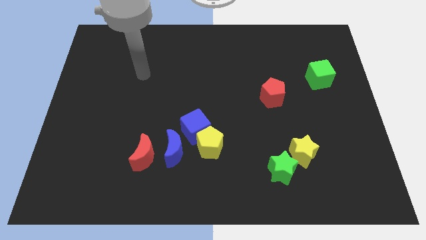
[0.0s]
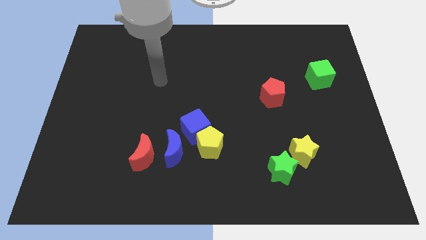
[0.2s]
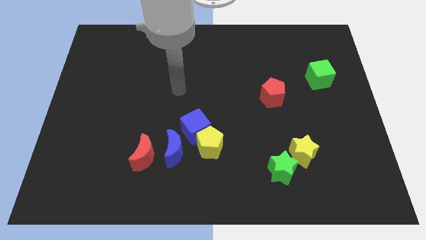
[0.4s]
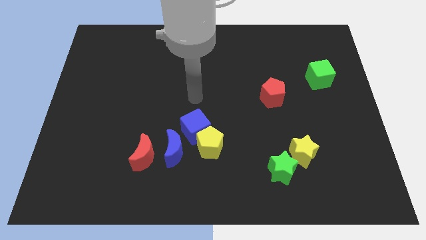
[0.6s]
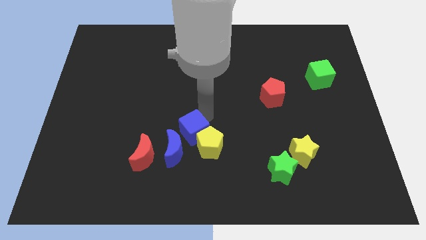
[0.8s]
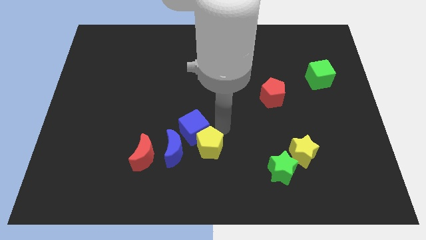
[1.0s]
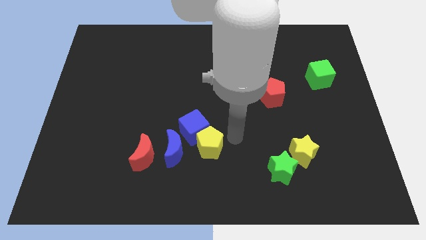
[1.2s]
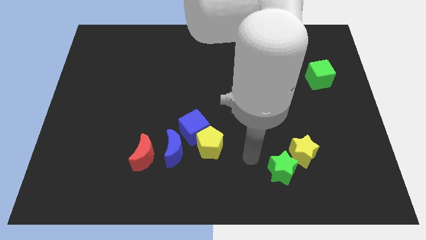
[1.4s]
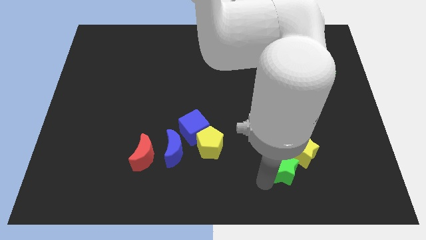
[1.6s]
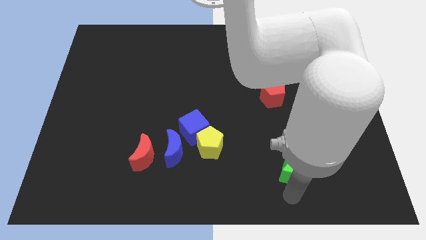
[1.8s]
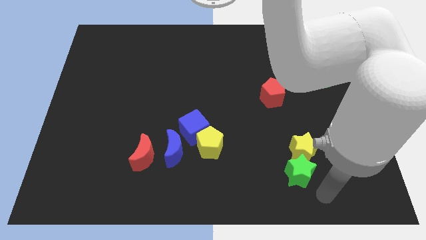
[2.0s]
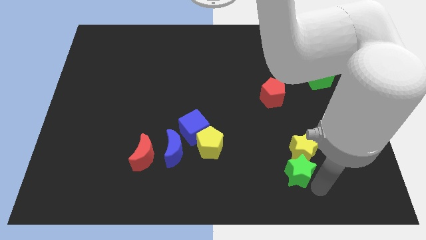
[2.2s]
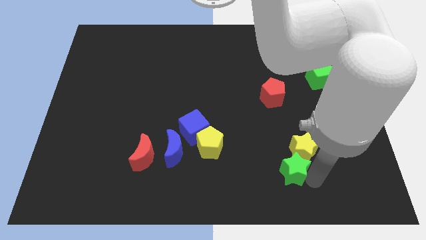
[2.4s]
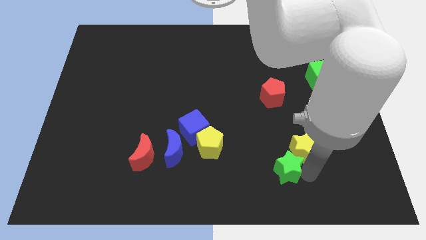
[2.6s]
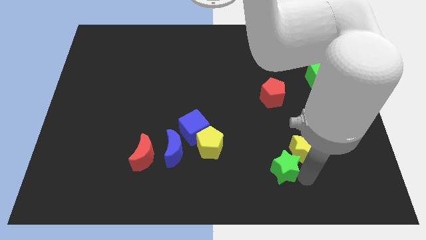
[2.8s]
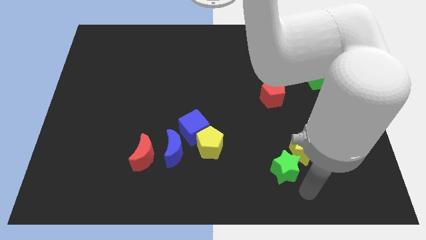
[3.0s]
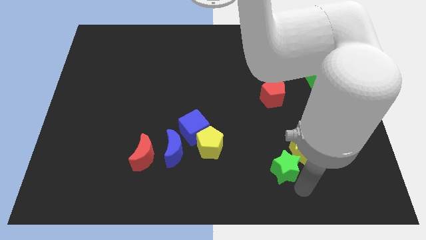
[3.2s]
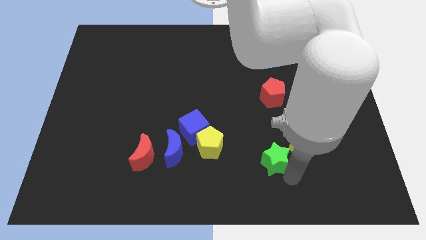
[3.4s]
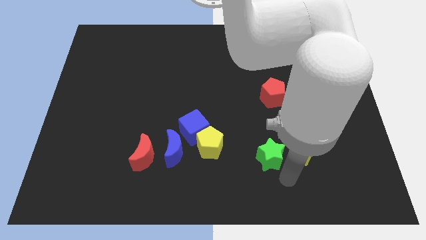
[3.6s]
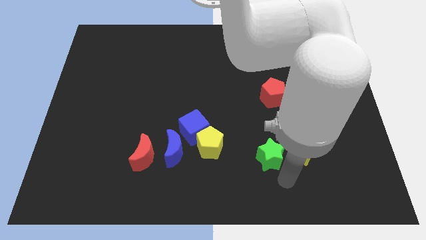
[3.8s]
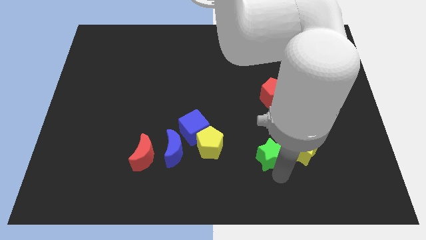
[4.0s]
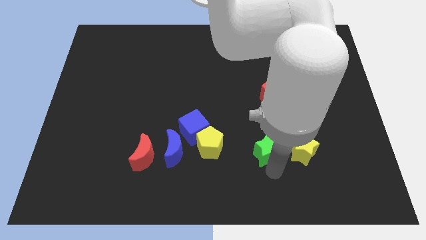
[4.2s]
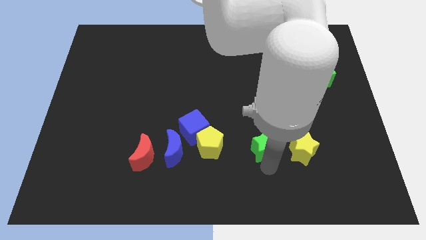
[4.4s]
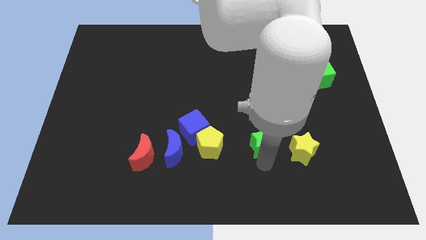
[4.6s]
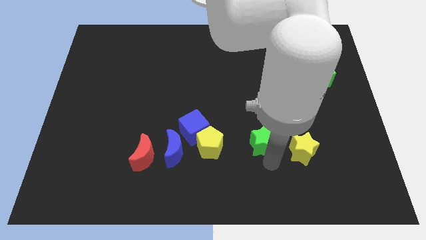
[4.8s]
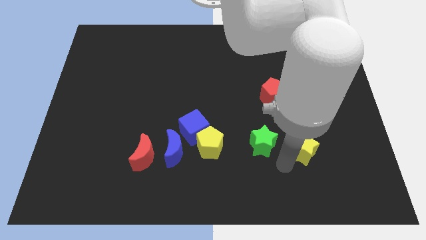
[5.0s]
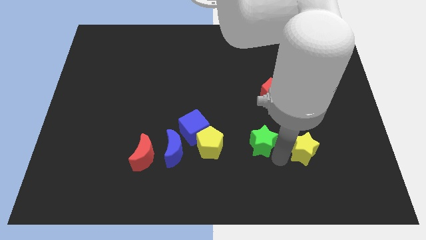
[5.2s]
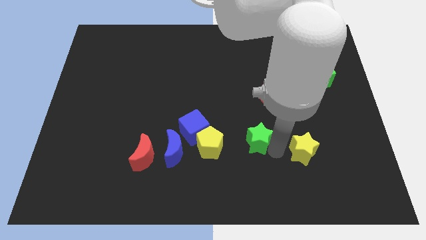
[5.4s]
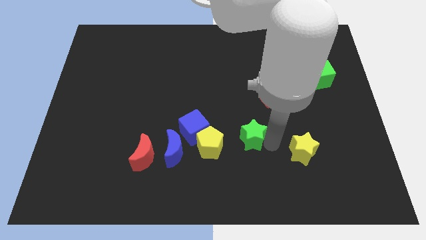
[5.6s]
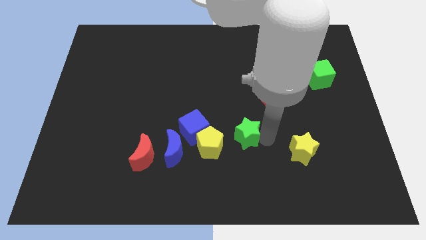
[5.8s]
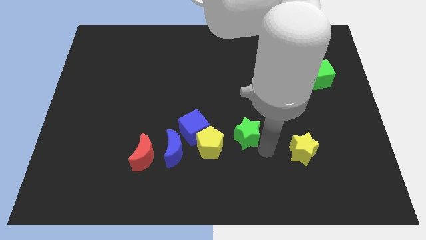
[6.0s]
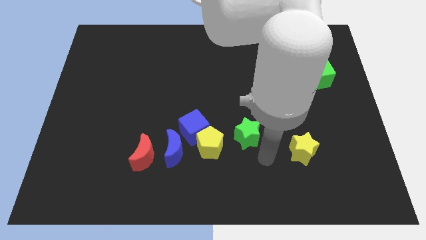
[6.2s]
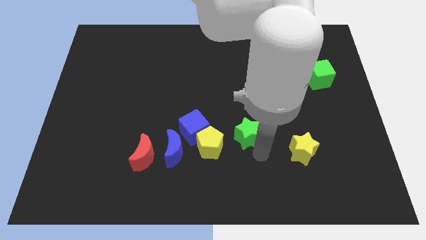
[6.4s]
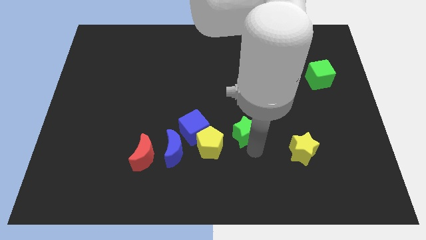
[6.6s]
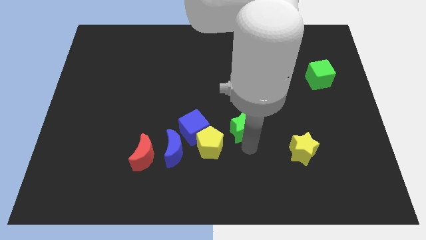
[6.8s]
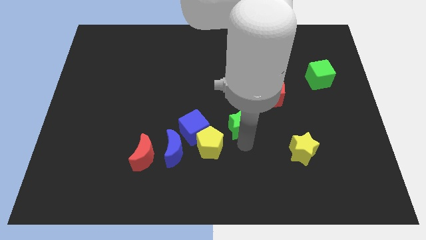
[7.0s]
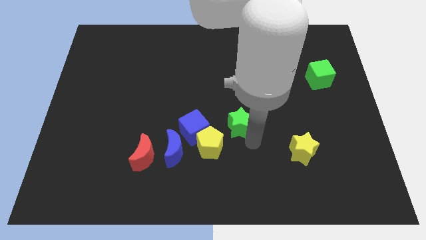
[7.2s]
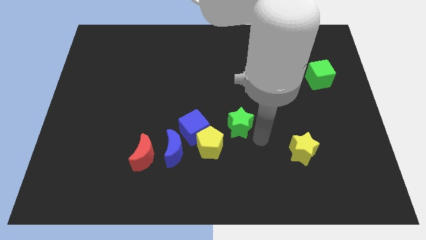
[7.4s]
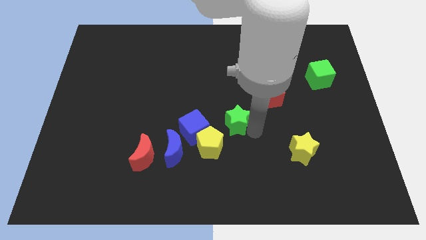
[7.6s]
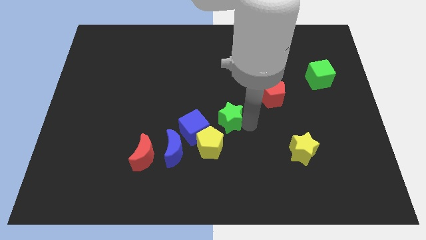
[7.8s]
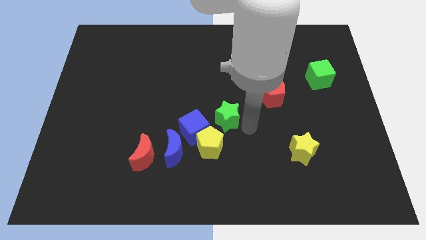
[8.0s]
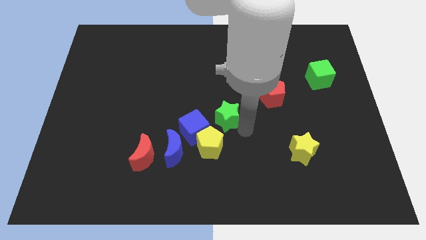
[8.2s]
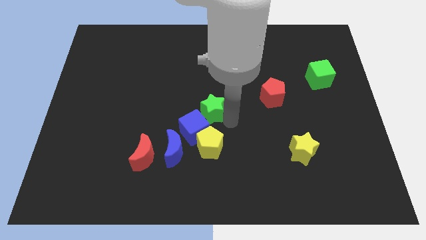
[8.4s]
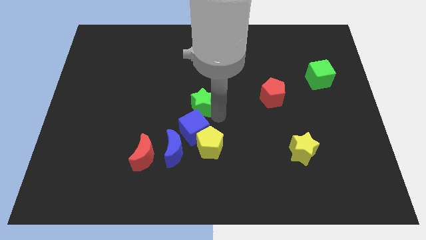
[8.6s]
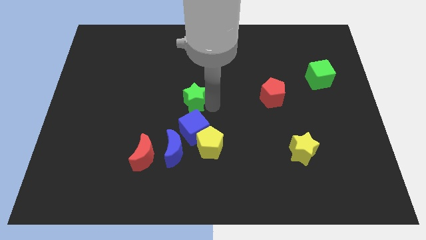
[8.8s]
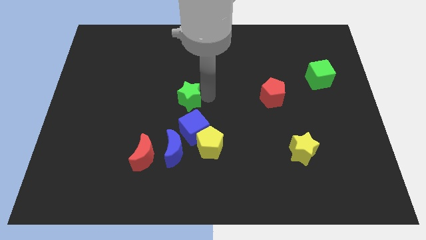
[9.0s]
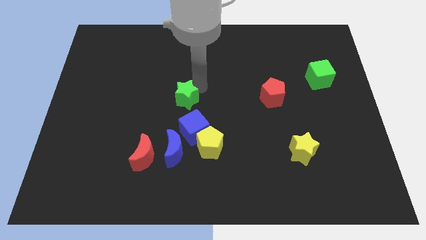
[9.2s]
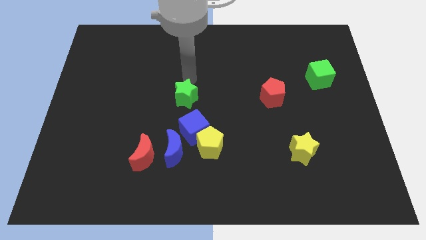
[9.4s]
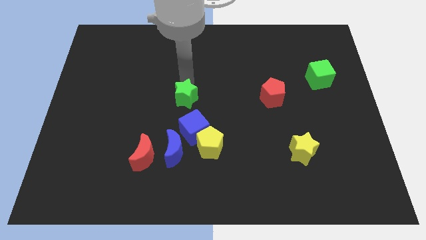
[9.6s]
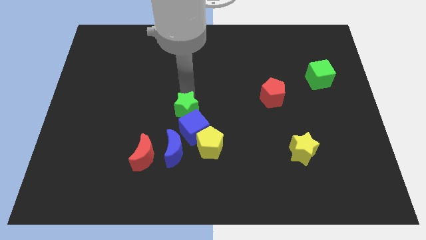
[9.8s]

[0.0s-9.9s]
slide the green star to the top left side of the yellow pentagon

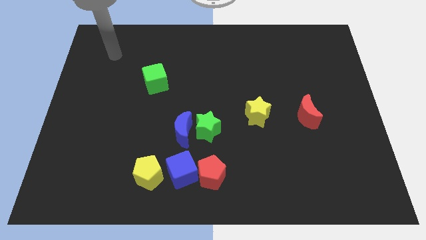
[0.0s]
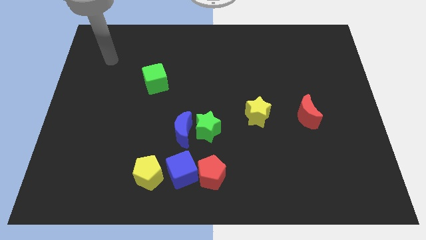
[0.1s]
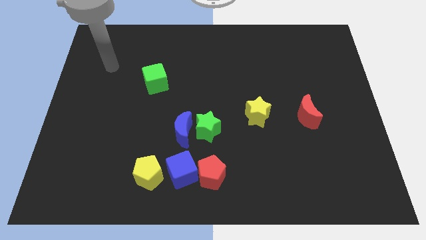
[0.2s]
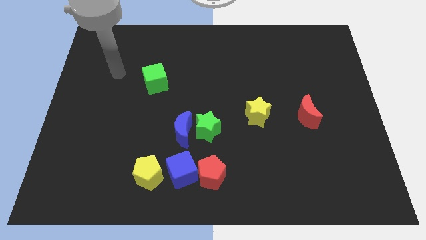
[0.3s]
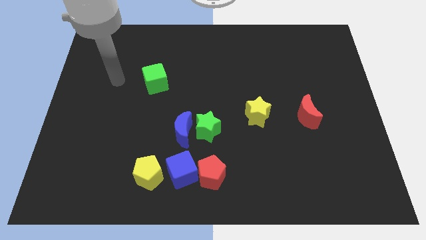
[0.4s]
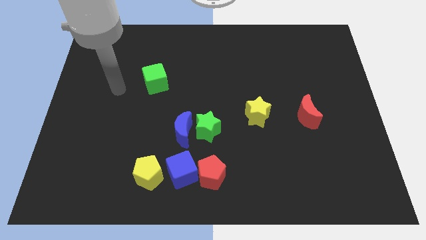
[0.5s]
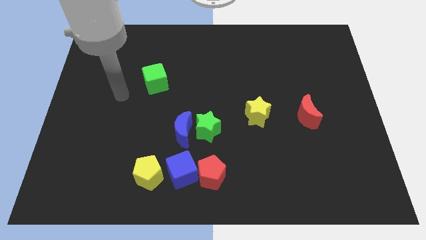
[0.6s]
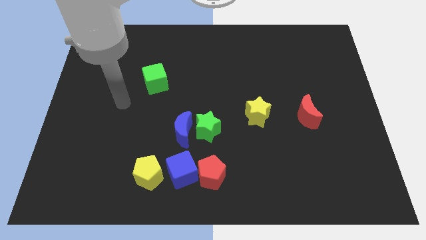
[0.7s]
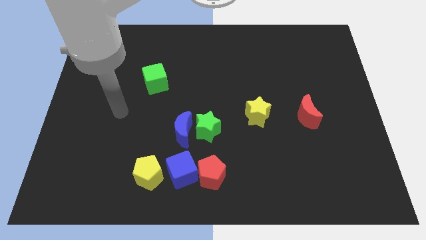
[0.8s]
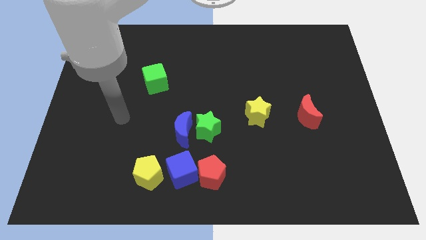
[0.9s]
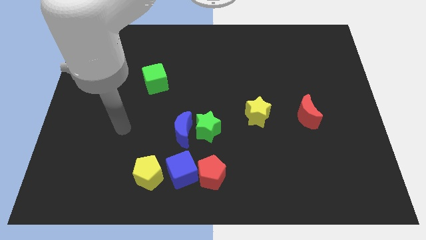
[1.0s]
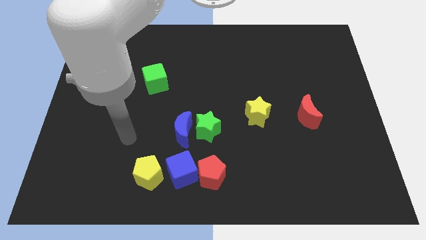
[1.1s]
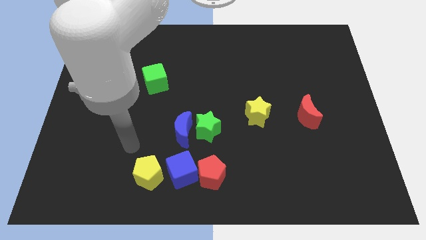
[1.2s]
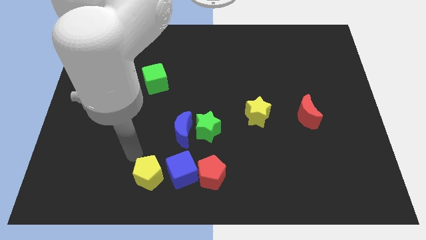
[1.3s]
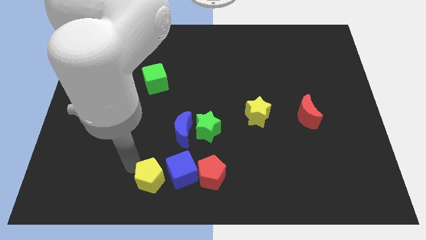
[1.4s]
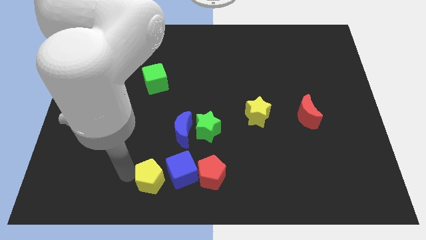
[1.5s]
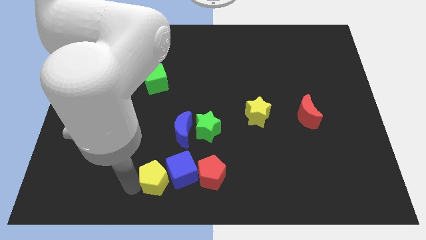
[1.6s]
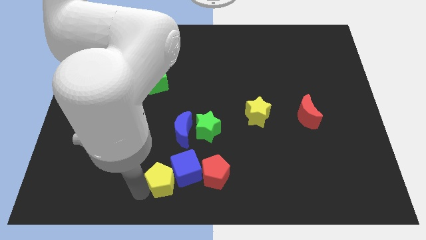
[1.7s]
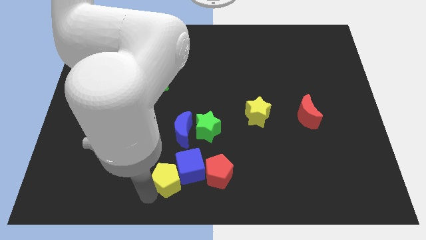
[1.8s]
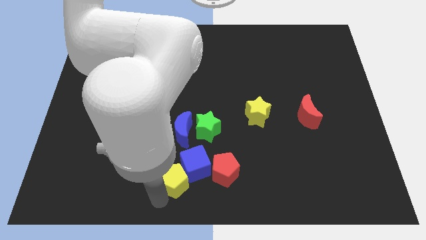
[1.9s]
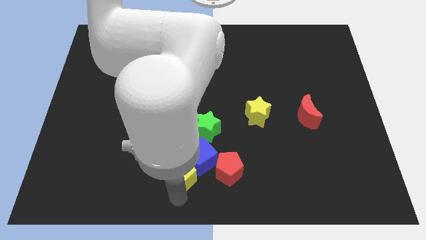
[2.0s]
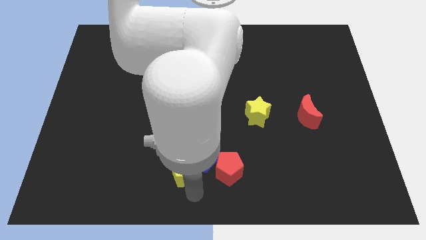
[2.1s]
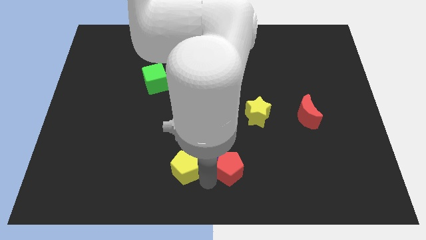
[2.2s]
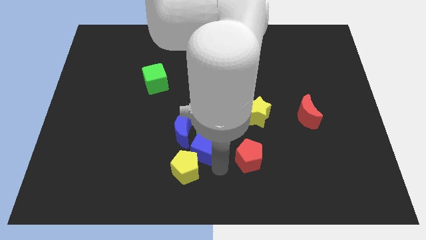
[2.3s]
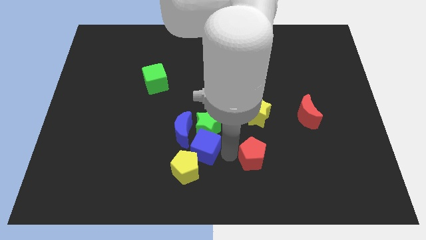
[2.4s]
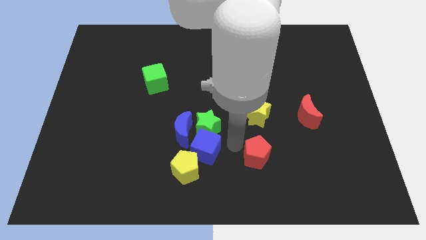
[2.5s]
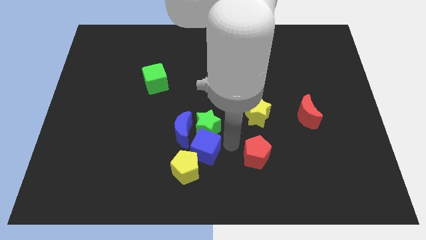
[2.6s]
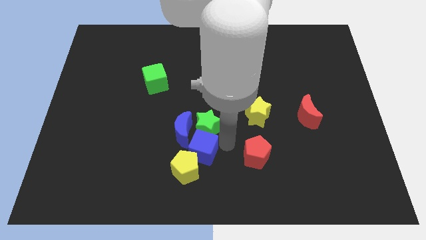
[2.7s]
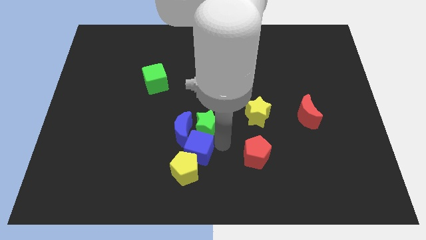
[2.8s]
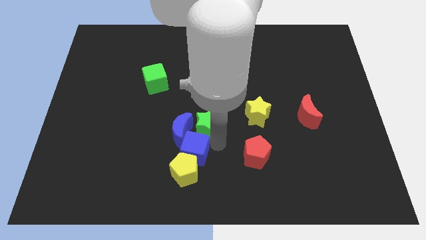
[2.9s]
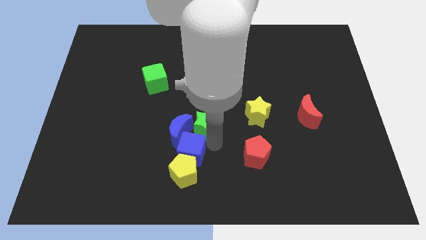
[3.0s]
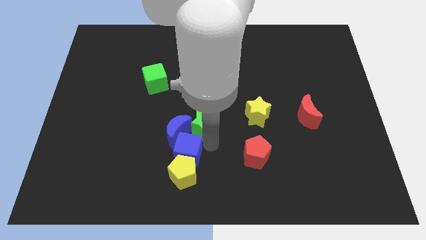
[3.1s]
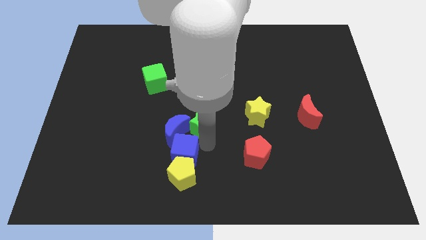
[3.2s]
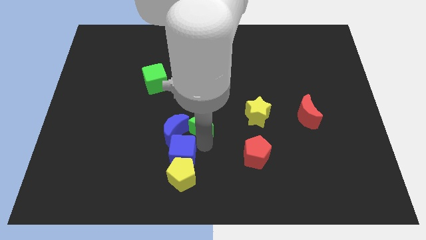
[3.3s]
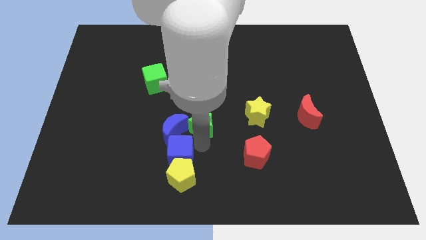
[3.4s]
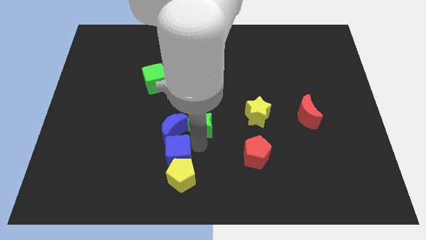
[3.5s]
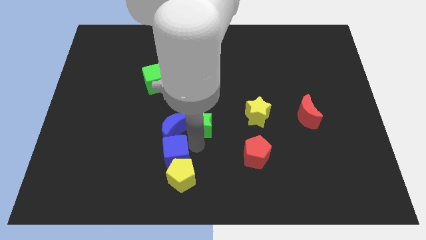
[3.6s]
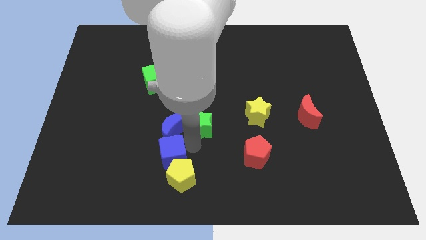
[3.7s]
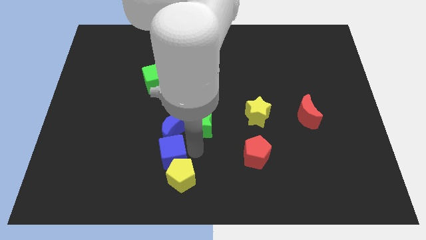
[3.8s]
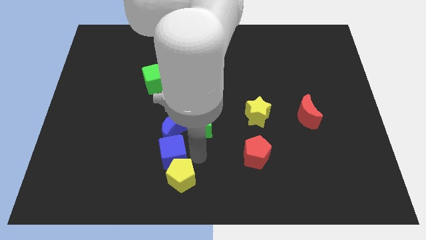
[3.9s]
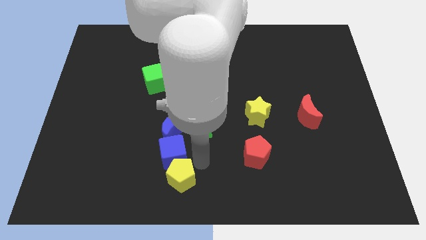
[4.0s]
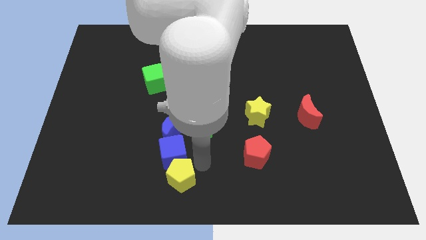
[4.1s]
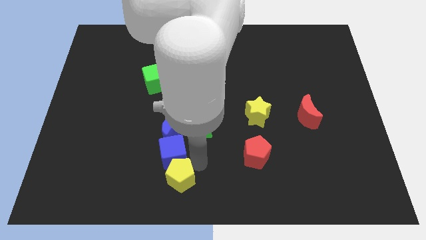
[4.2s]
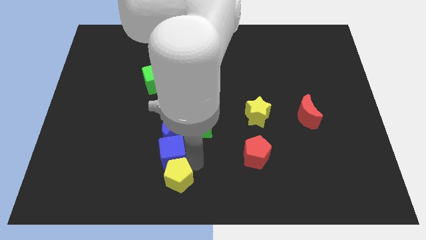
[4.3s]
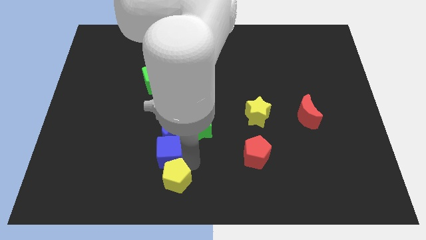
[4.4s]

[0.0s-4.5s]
push the blue cube diagonally up and to the left of the yellow pentagon
